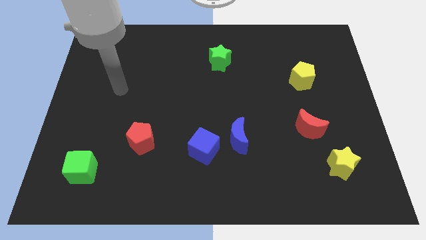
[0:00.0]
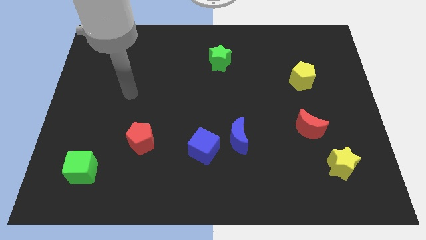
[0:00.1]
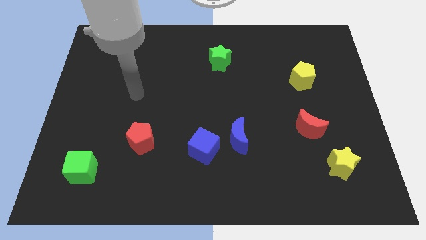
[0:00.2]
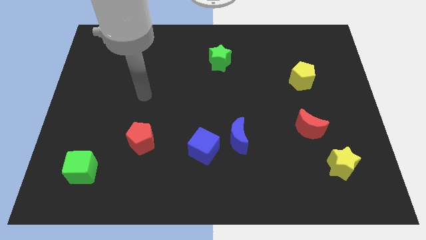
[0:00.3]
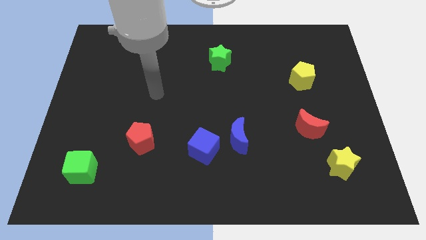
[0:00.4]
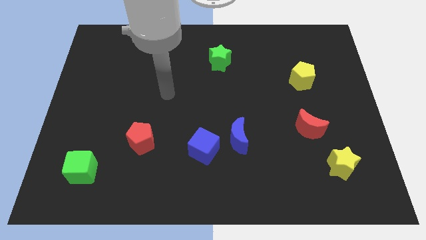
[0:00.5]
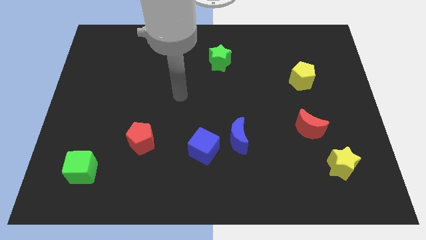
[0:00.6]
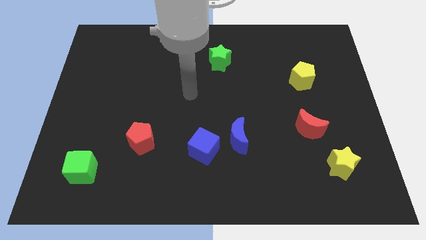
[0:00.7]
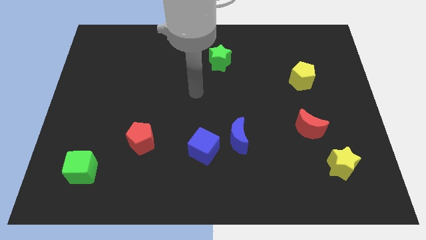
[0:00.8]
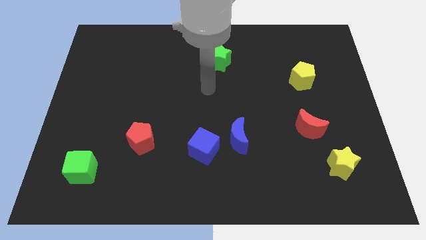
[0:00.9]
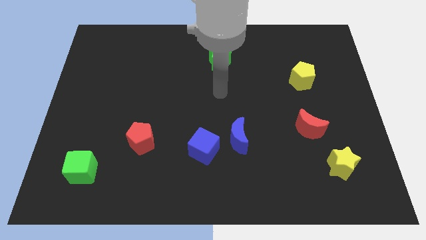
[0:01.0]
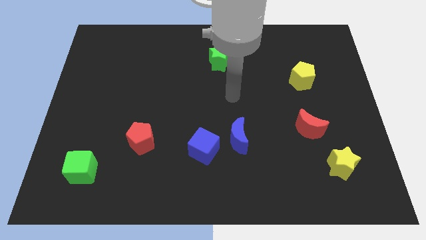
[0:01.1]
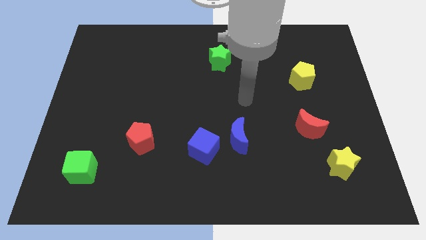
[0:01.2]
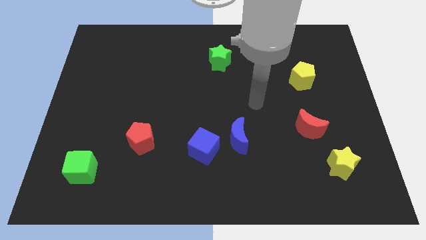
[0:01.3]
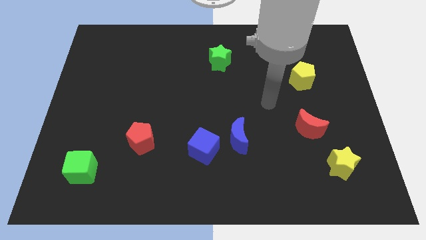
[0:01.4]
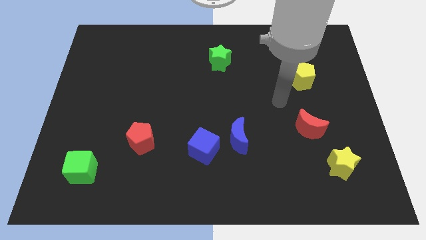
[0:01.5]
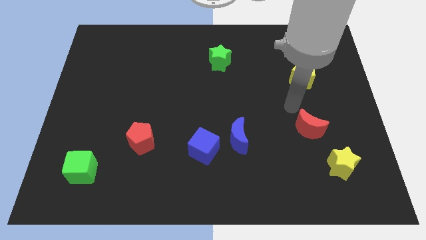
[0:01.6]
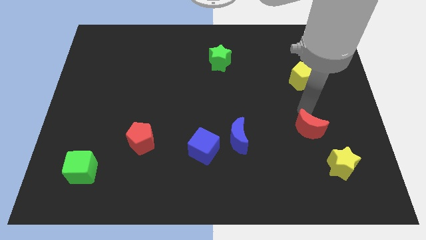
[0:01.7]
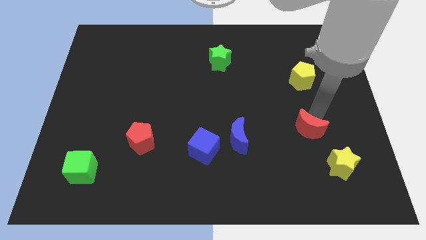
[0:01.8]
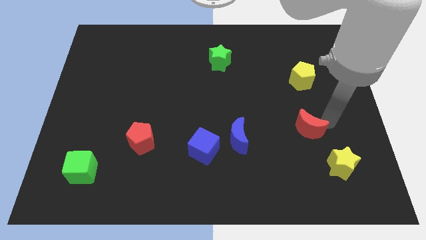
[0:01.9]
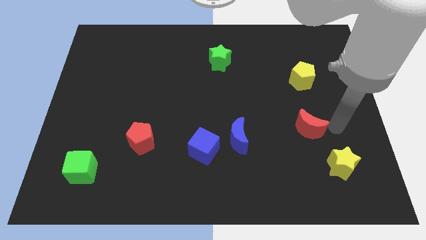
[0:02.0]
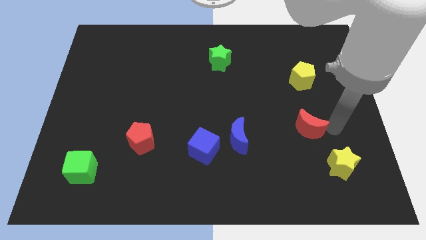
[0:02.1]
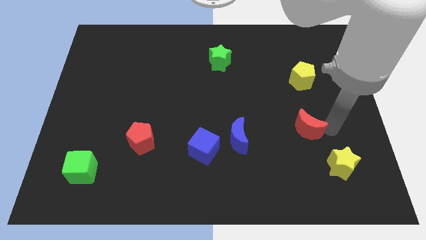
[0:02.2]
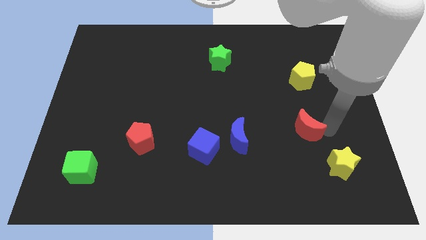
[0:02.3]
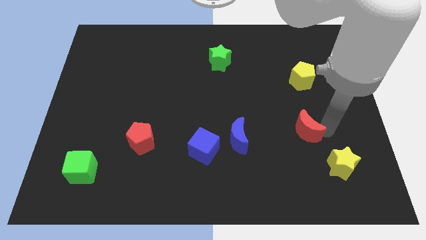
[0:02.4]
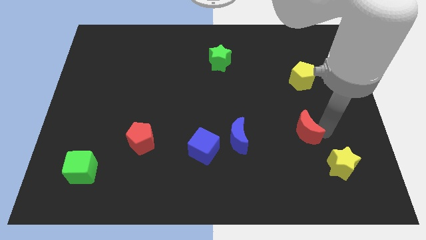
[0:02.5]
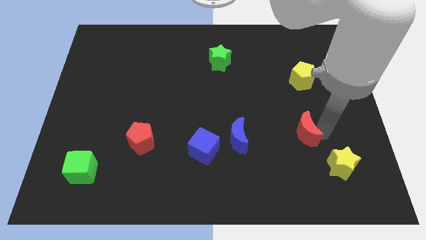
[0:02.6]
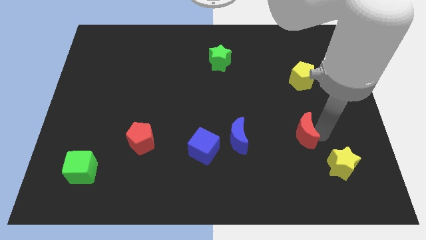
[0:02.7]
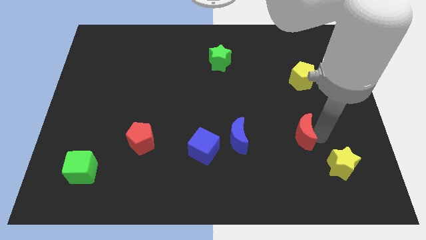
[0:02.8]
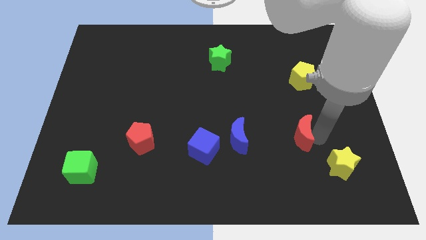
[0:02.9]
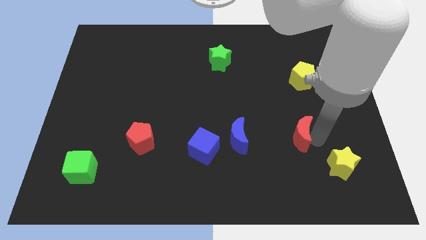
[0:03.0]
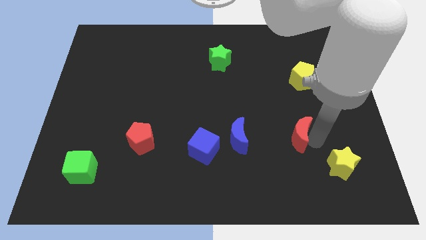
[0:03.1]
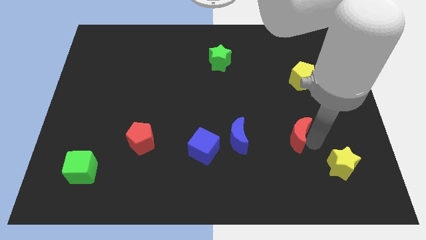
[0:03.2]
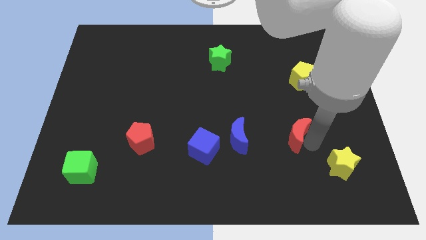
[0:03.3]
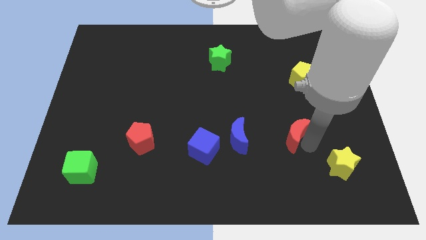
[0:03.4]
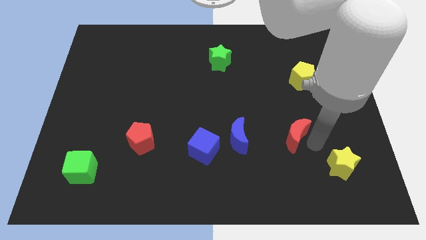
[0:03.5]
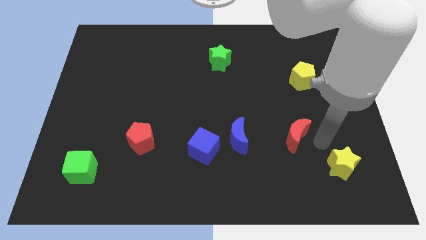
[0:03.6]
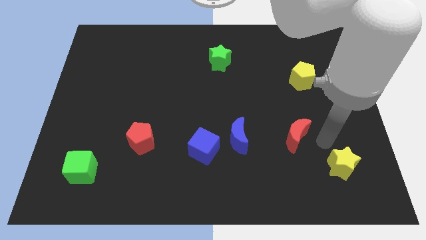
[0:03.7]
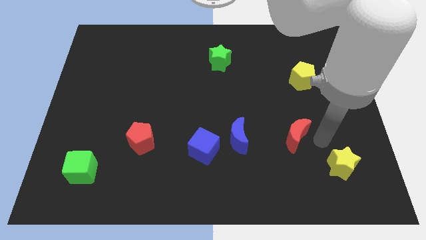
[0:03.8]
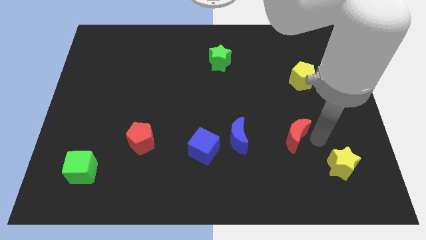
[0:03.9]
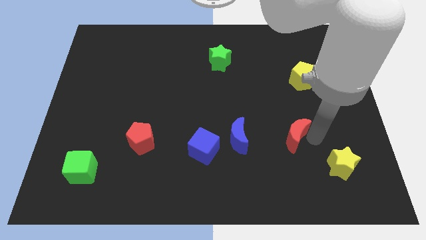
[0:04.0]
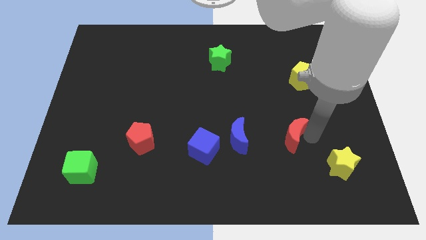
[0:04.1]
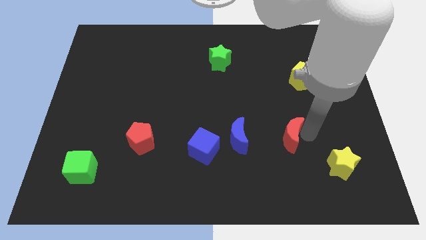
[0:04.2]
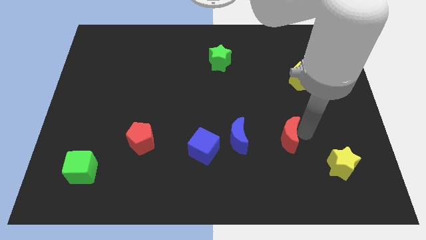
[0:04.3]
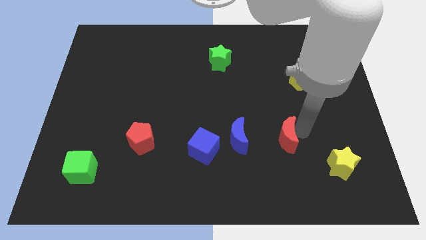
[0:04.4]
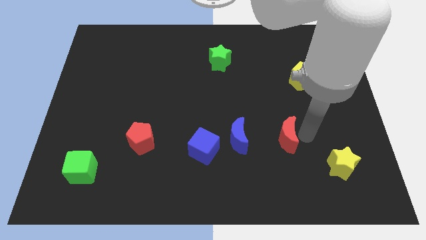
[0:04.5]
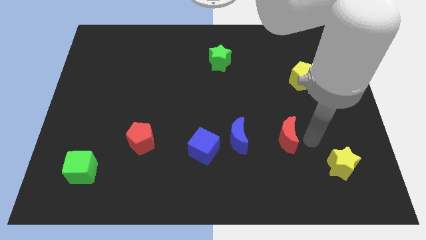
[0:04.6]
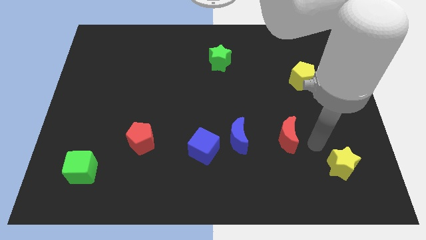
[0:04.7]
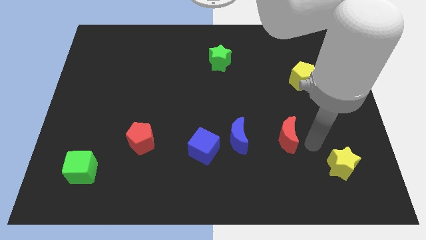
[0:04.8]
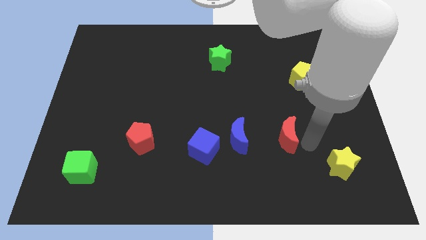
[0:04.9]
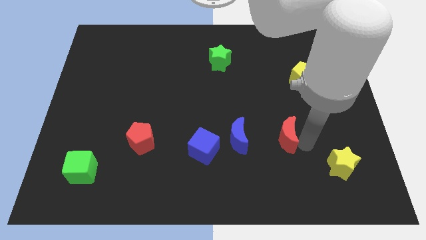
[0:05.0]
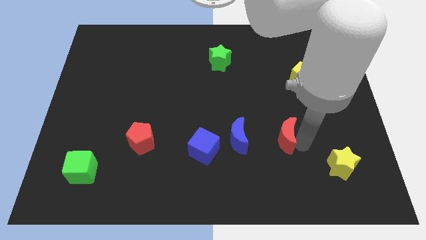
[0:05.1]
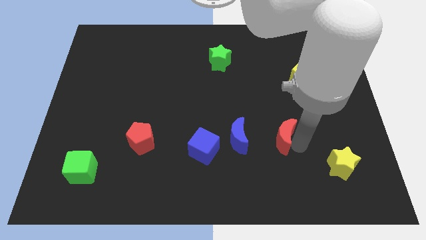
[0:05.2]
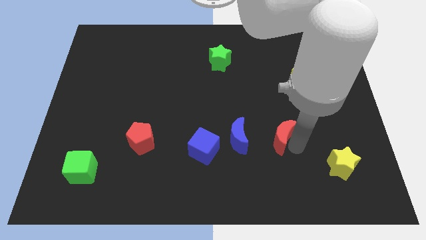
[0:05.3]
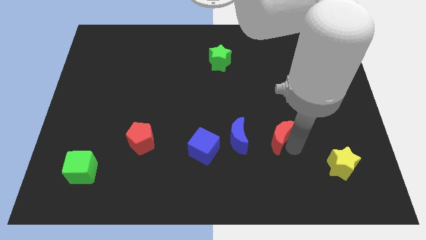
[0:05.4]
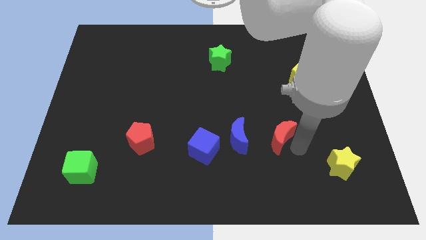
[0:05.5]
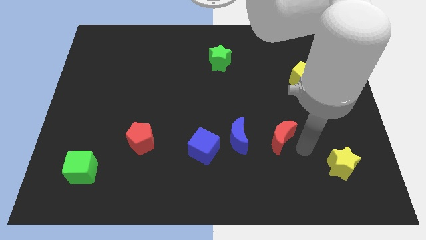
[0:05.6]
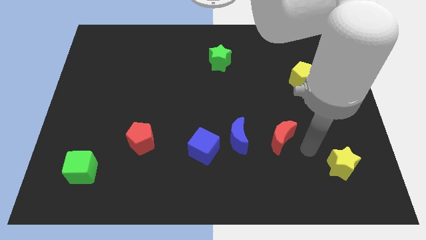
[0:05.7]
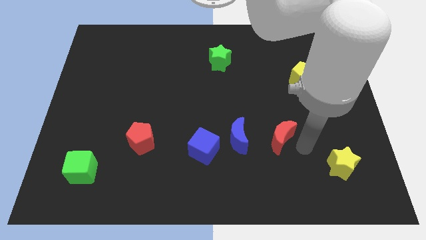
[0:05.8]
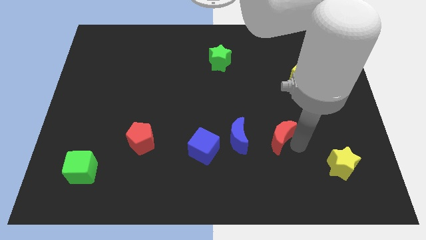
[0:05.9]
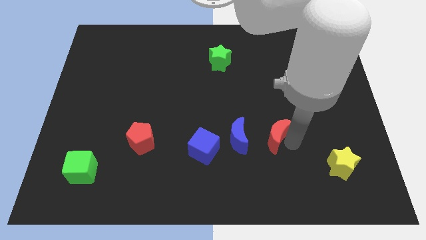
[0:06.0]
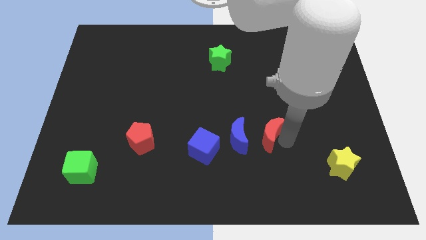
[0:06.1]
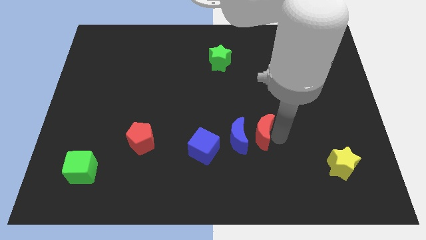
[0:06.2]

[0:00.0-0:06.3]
put the red moon to the blue moon

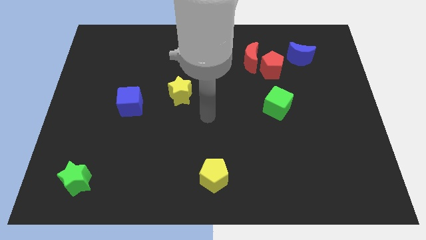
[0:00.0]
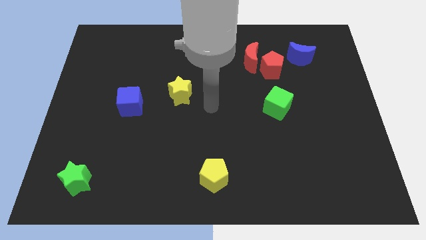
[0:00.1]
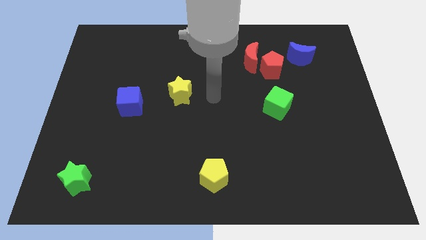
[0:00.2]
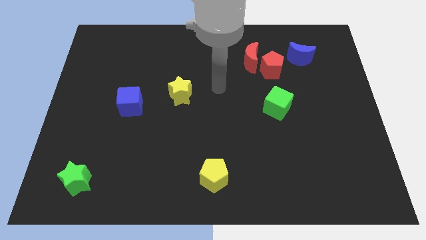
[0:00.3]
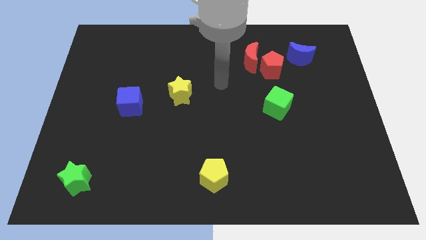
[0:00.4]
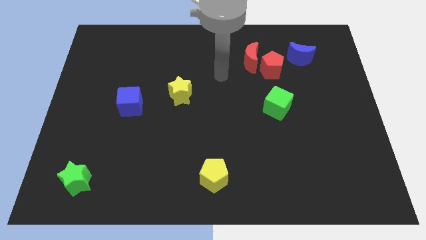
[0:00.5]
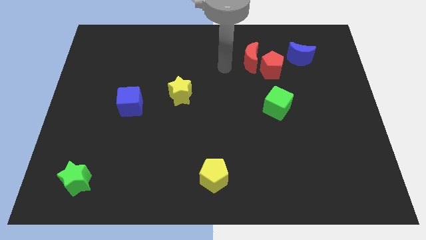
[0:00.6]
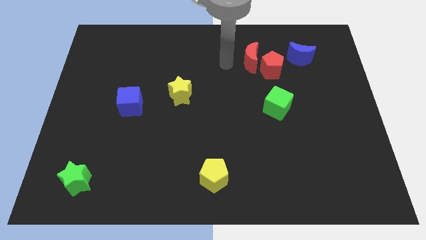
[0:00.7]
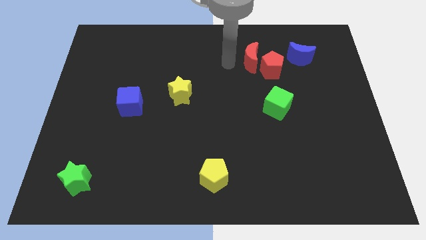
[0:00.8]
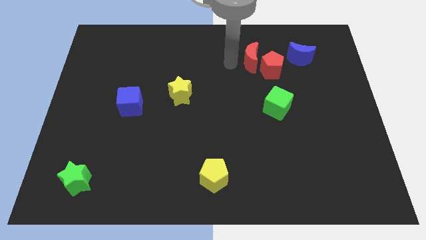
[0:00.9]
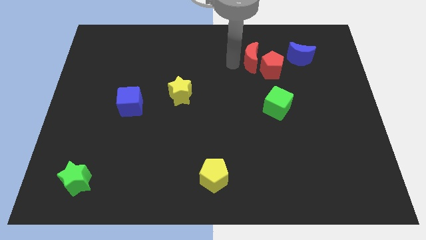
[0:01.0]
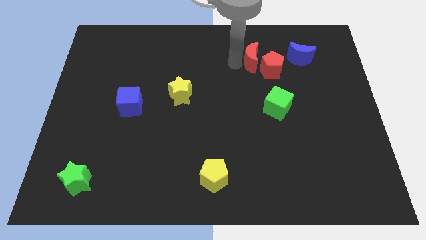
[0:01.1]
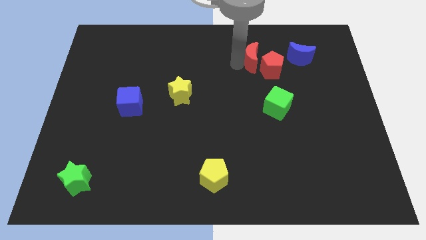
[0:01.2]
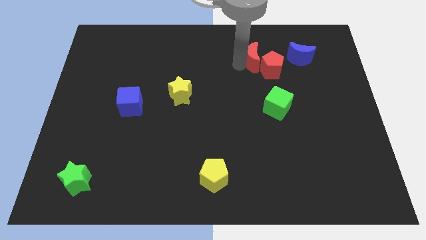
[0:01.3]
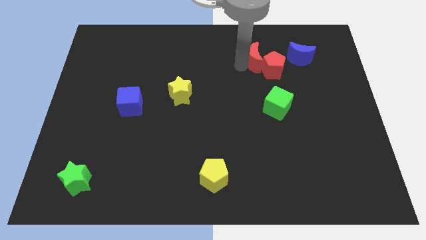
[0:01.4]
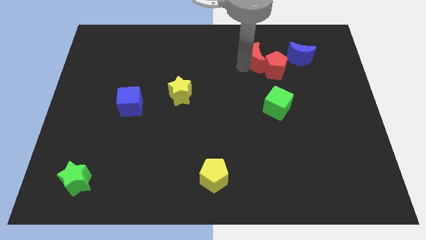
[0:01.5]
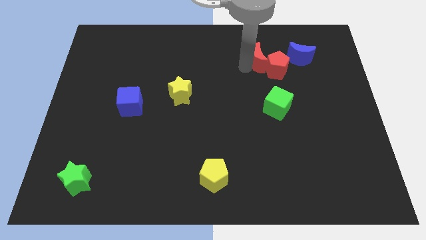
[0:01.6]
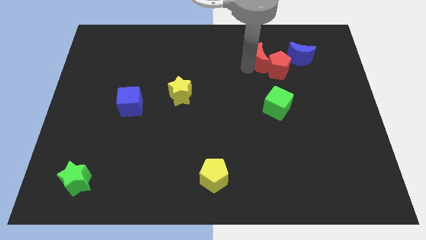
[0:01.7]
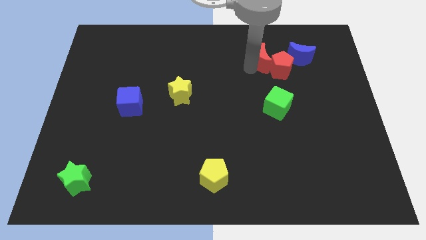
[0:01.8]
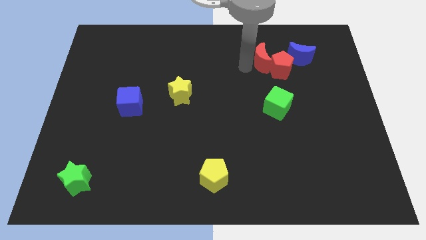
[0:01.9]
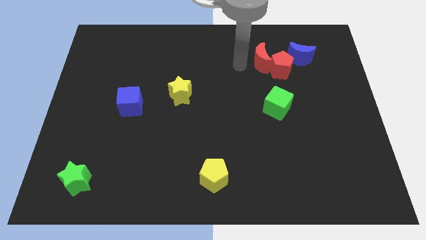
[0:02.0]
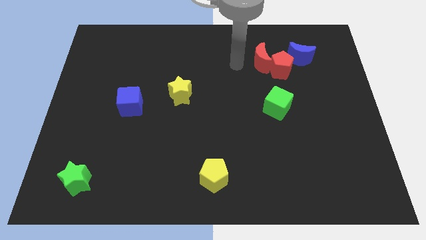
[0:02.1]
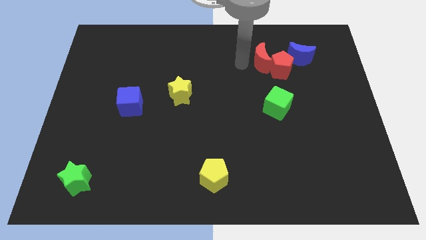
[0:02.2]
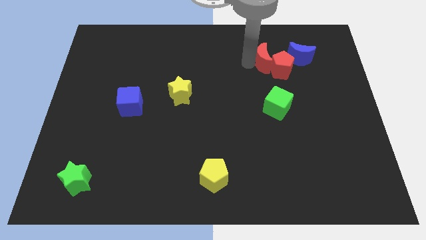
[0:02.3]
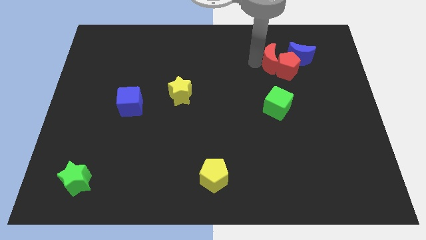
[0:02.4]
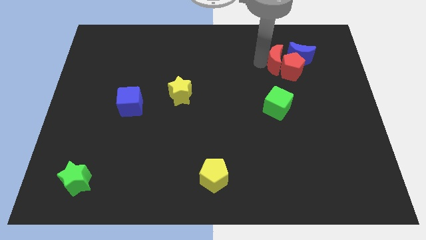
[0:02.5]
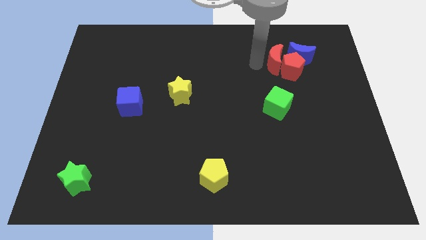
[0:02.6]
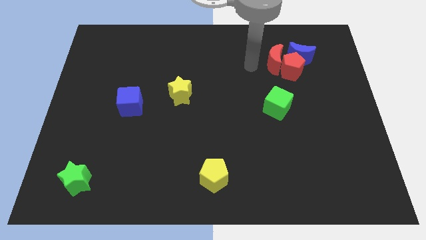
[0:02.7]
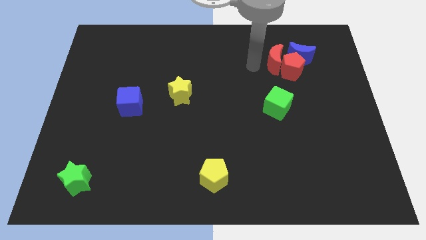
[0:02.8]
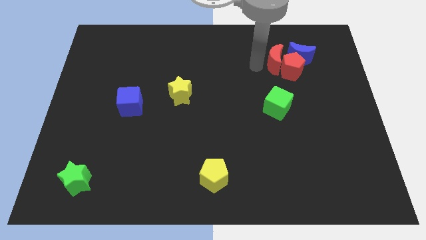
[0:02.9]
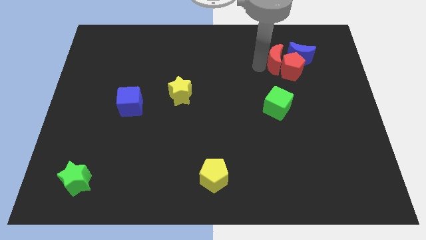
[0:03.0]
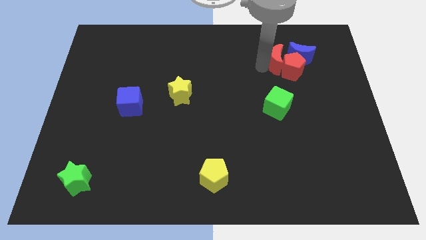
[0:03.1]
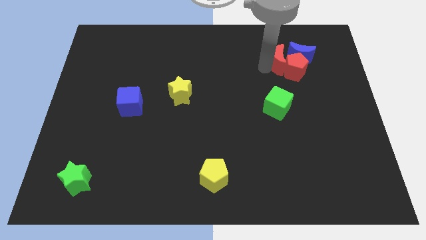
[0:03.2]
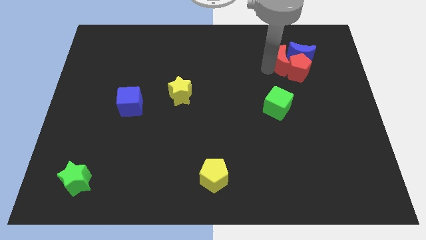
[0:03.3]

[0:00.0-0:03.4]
move the red moon to the blue moon
